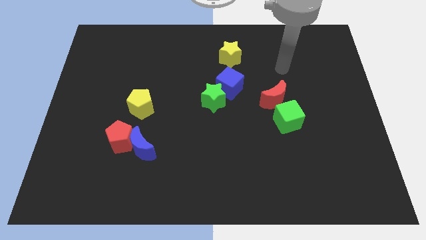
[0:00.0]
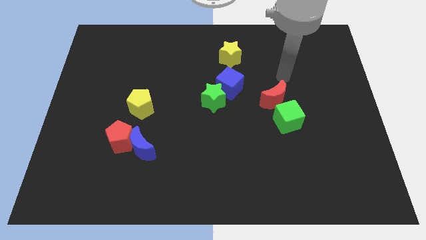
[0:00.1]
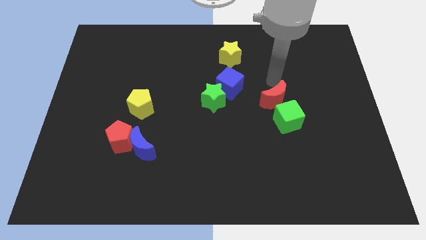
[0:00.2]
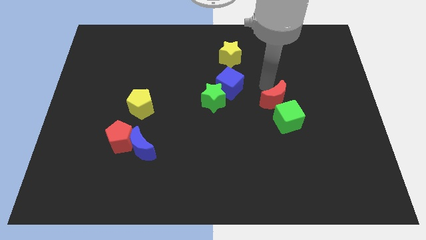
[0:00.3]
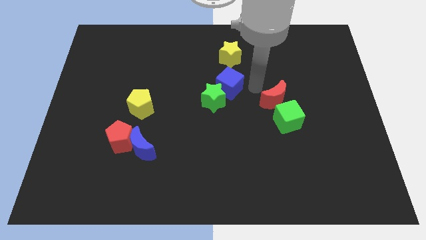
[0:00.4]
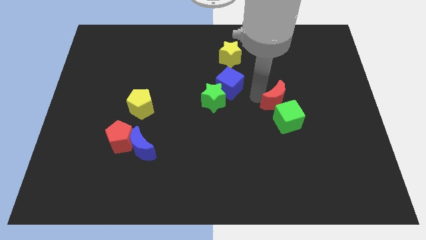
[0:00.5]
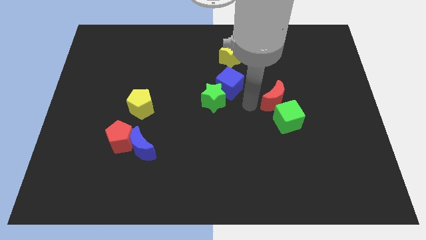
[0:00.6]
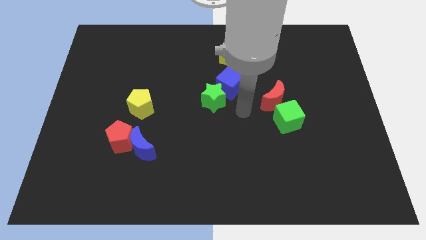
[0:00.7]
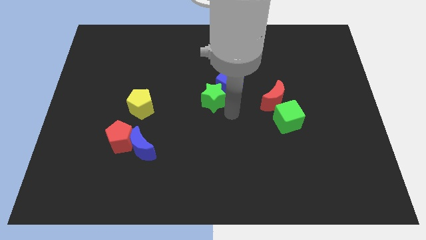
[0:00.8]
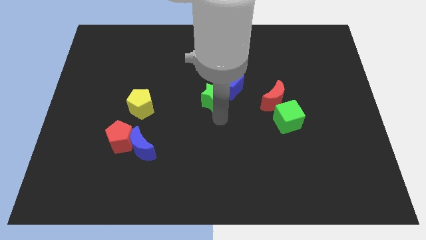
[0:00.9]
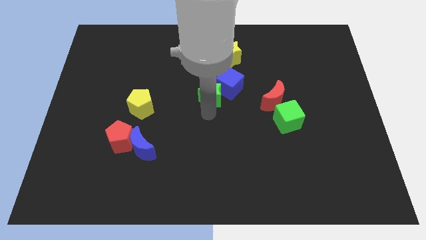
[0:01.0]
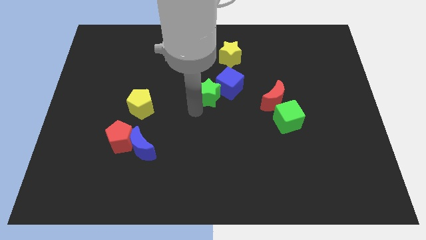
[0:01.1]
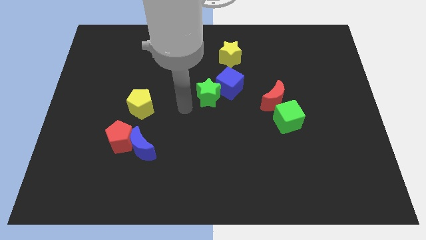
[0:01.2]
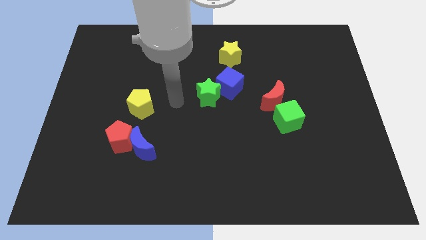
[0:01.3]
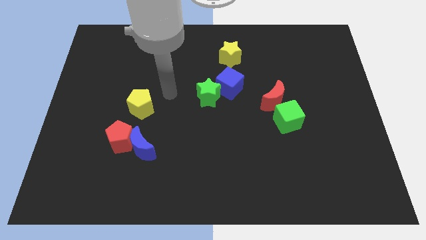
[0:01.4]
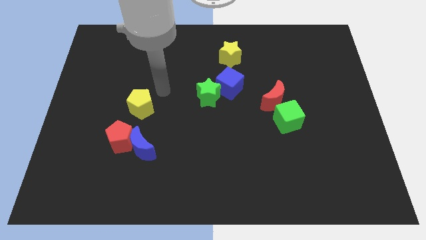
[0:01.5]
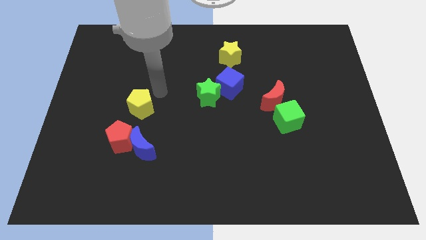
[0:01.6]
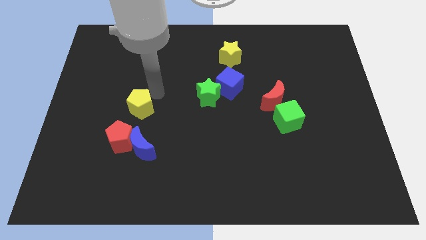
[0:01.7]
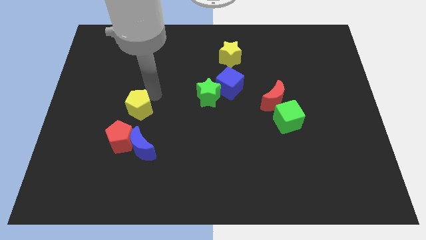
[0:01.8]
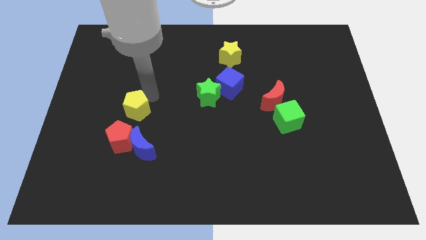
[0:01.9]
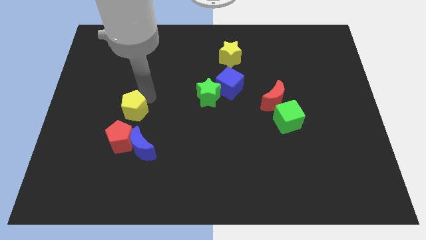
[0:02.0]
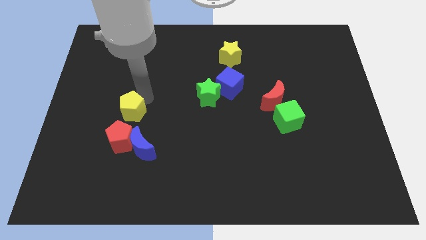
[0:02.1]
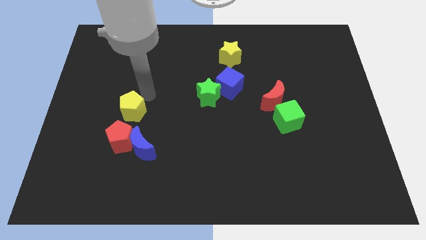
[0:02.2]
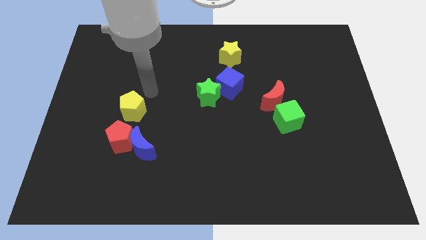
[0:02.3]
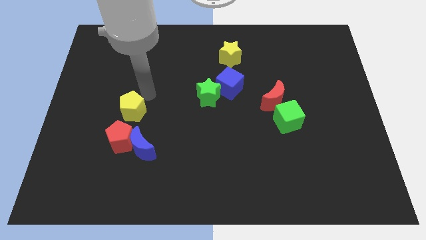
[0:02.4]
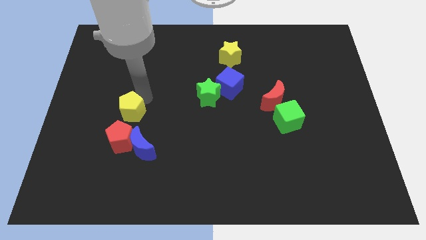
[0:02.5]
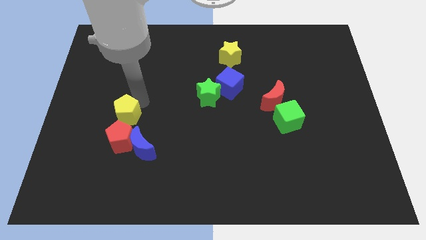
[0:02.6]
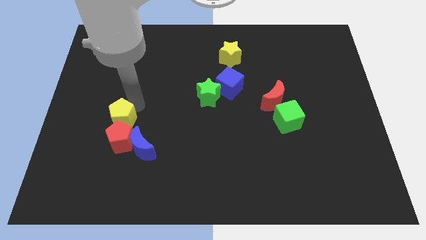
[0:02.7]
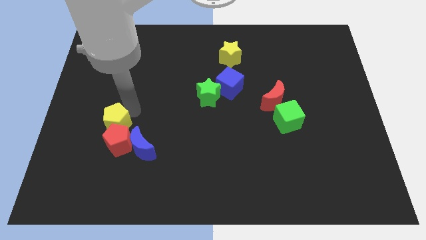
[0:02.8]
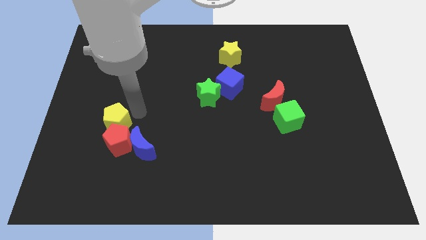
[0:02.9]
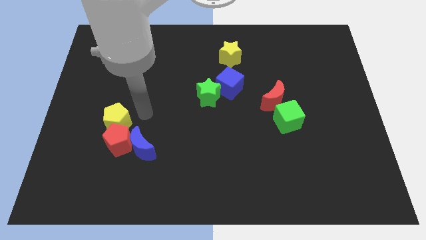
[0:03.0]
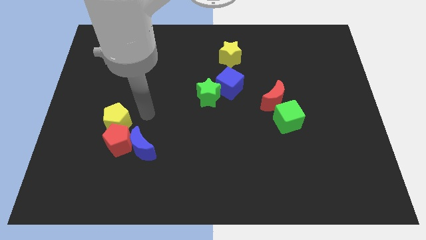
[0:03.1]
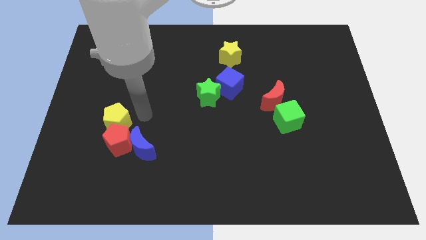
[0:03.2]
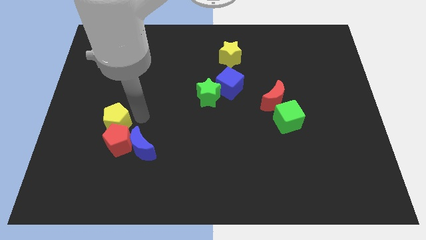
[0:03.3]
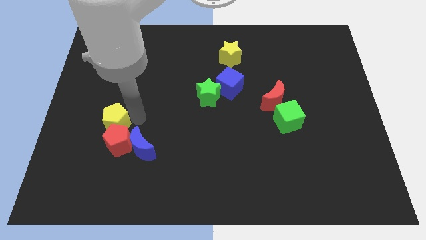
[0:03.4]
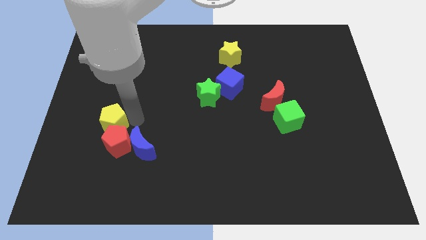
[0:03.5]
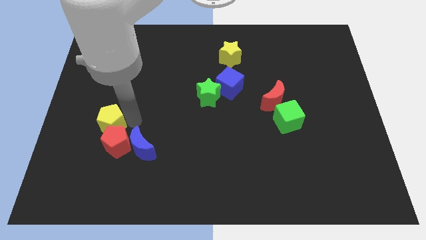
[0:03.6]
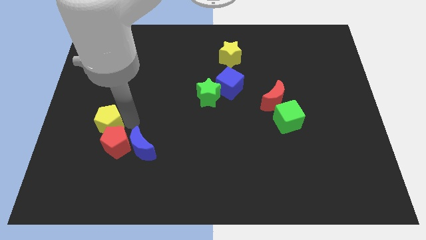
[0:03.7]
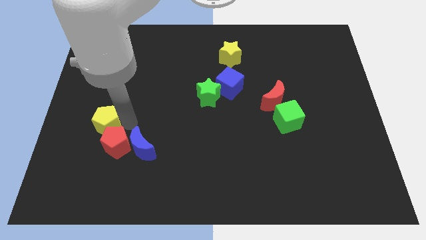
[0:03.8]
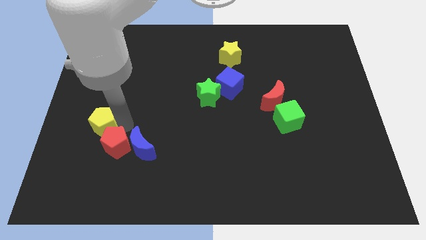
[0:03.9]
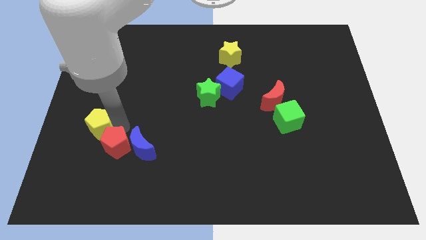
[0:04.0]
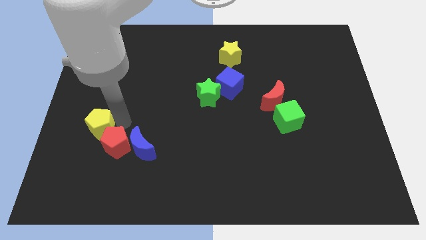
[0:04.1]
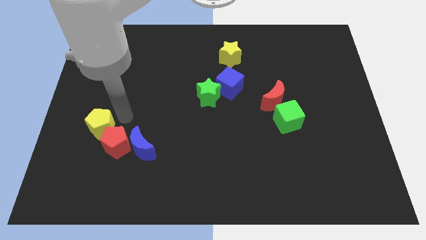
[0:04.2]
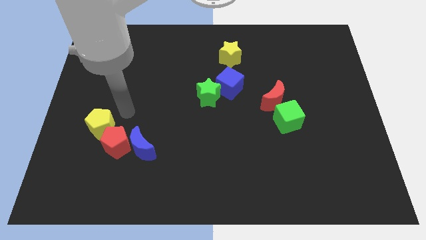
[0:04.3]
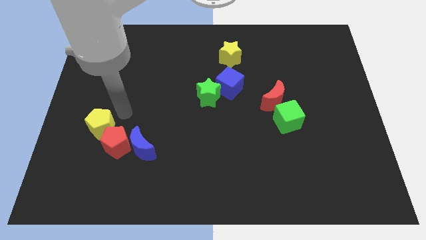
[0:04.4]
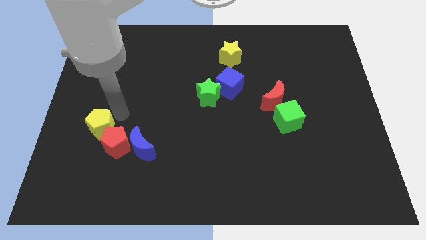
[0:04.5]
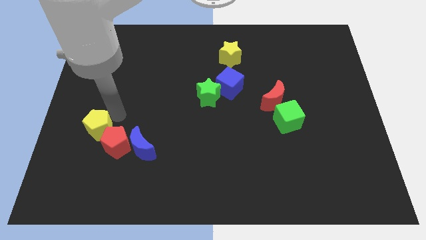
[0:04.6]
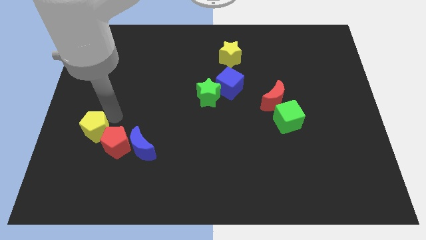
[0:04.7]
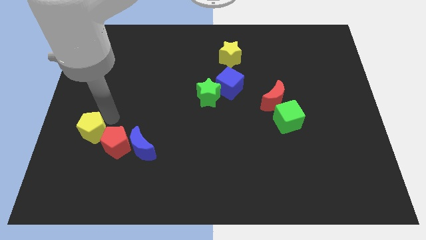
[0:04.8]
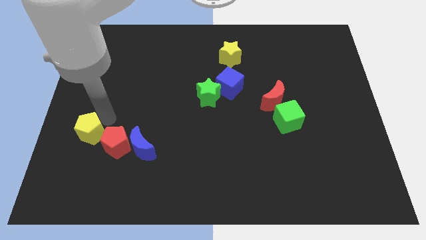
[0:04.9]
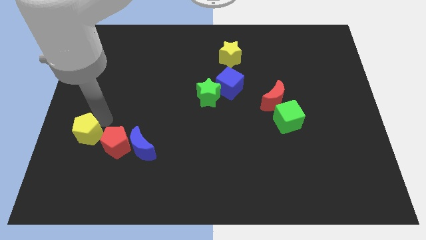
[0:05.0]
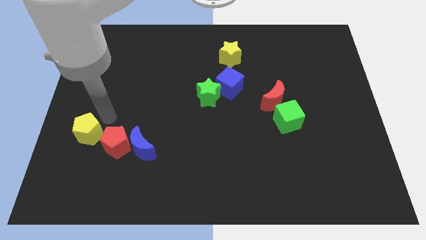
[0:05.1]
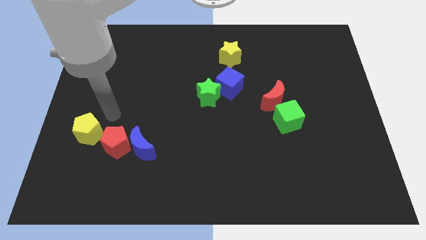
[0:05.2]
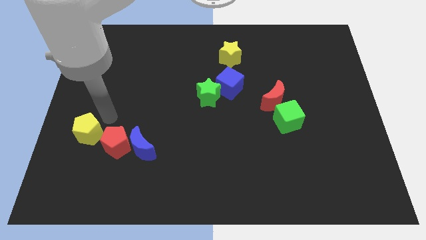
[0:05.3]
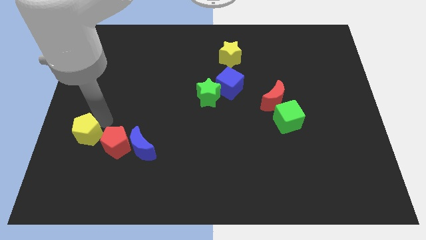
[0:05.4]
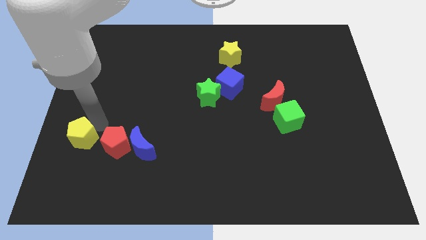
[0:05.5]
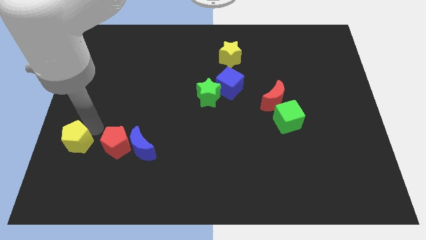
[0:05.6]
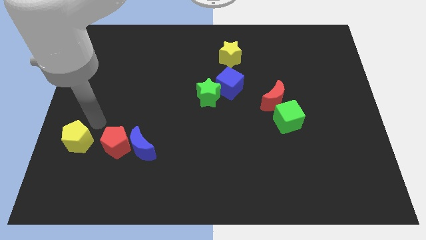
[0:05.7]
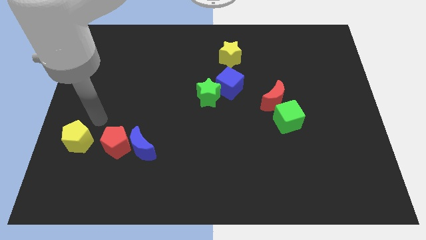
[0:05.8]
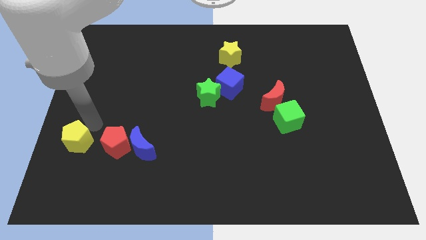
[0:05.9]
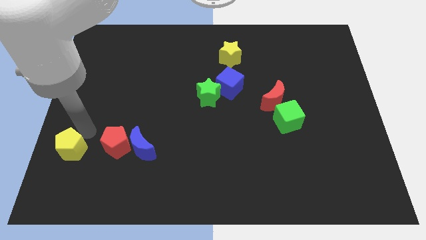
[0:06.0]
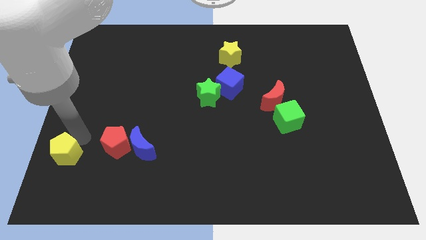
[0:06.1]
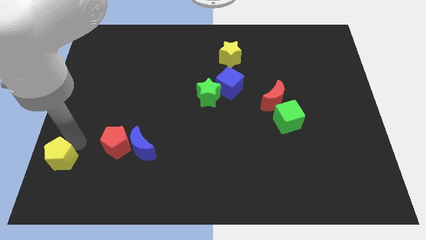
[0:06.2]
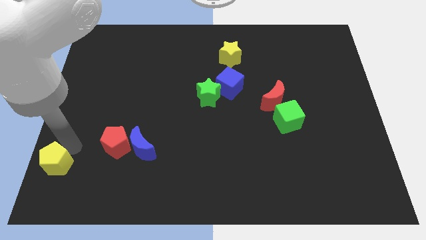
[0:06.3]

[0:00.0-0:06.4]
slide the yellow pentagon to the lower left corner
